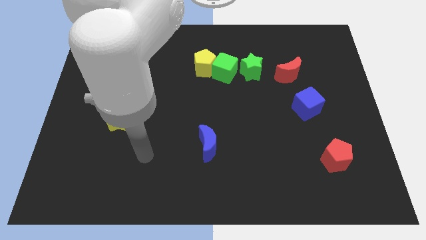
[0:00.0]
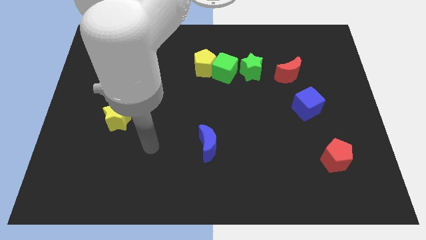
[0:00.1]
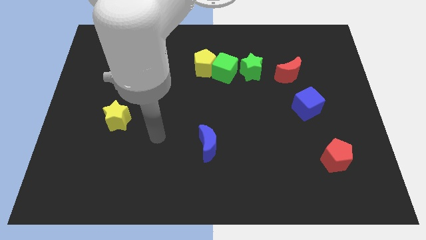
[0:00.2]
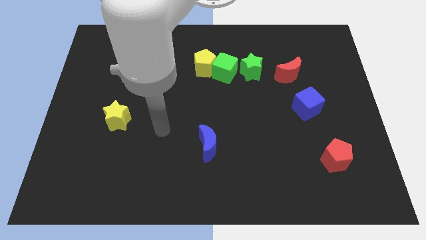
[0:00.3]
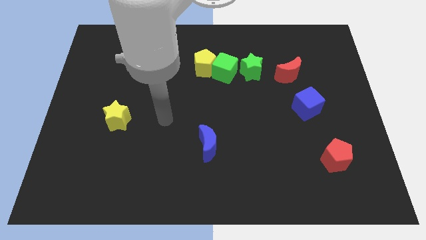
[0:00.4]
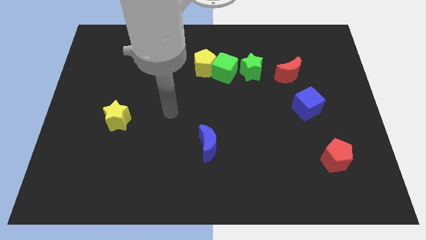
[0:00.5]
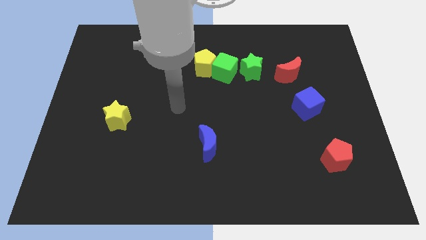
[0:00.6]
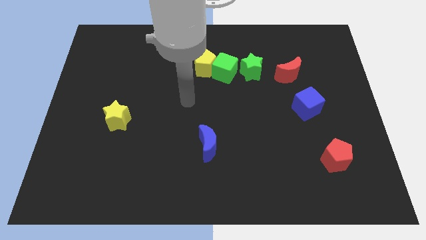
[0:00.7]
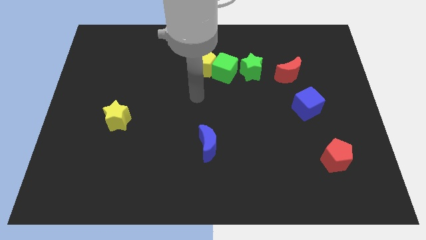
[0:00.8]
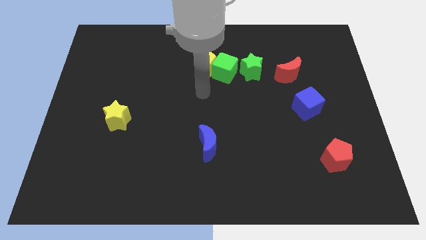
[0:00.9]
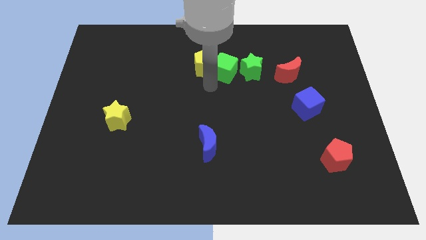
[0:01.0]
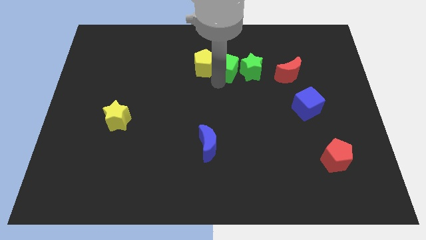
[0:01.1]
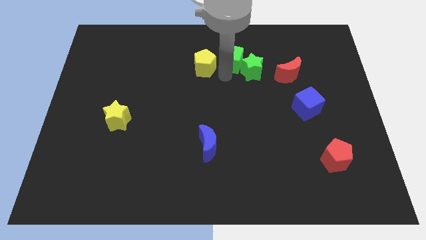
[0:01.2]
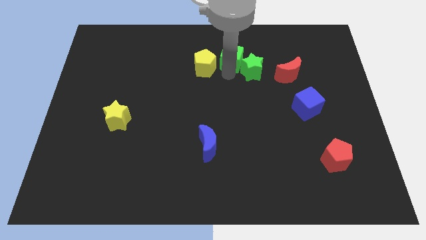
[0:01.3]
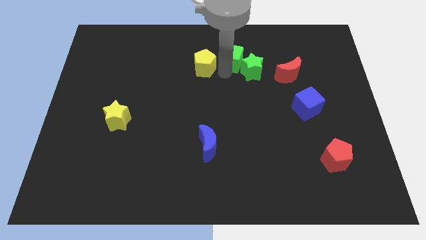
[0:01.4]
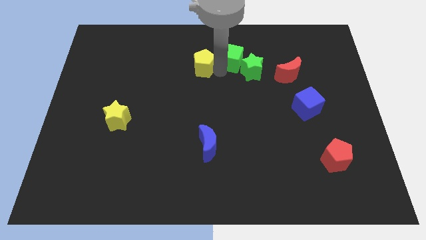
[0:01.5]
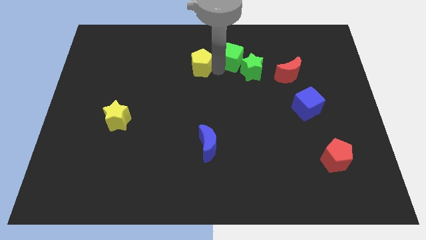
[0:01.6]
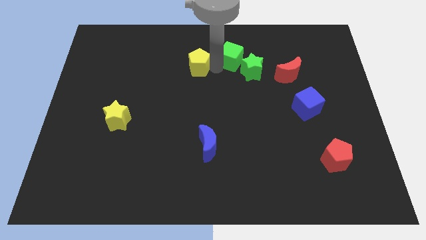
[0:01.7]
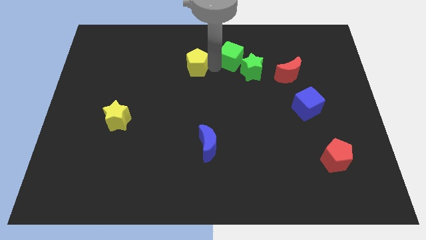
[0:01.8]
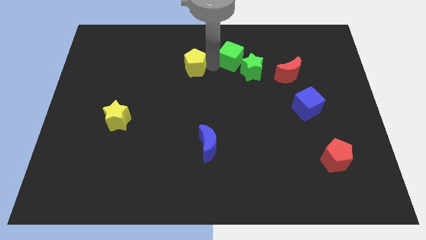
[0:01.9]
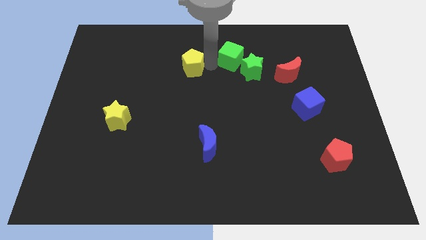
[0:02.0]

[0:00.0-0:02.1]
move the yellow pentagon away from the green cube

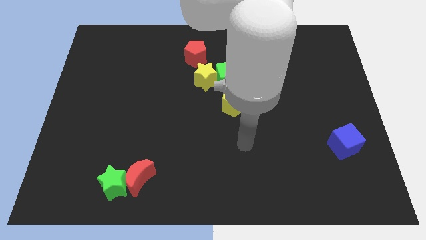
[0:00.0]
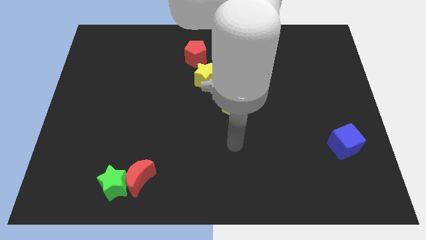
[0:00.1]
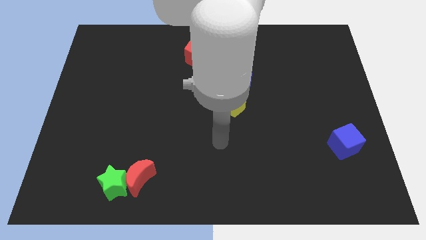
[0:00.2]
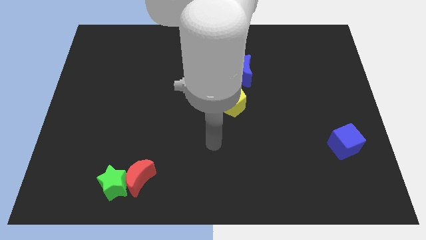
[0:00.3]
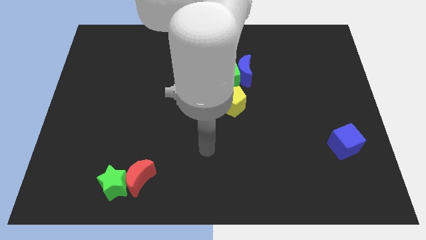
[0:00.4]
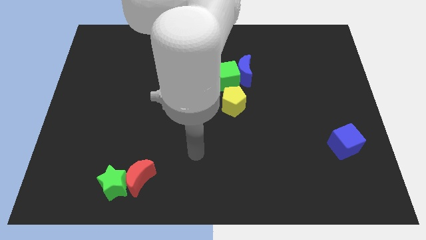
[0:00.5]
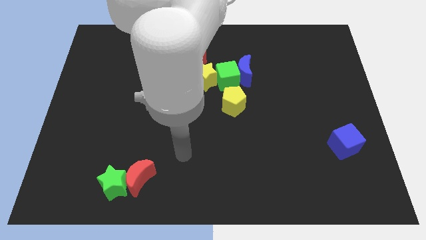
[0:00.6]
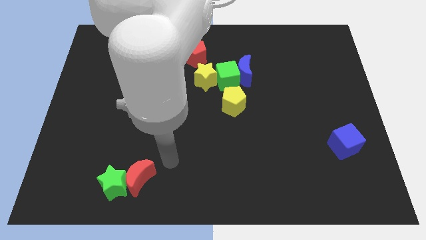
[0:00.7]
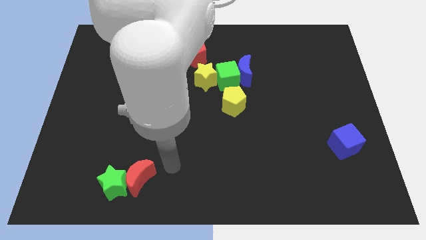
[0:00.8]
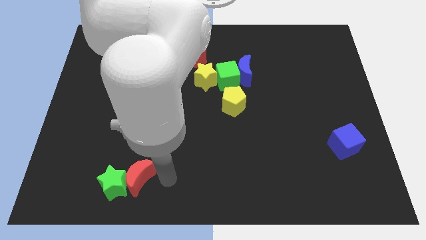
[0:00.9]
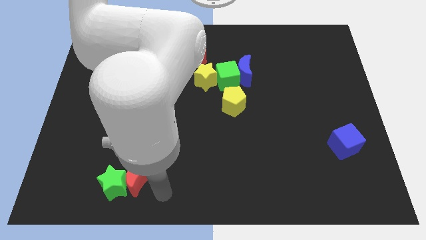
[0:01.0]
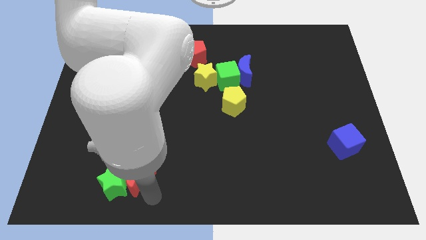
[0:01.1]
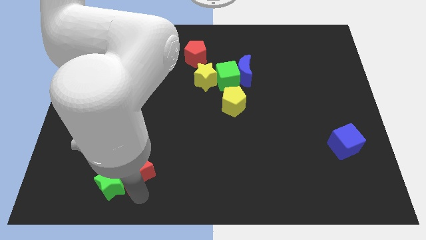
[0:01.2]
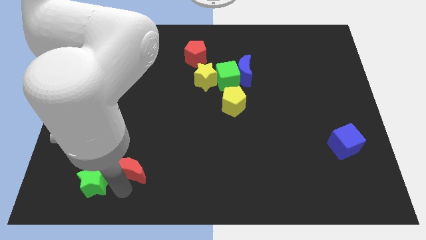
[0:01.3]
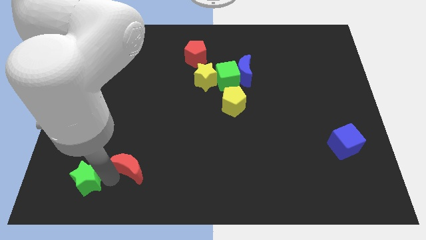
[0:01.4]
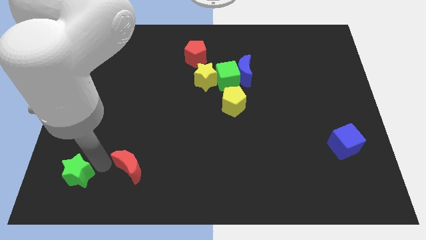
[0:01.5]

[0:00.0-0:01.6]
move the red moon away from the green star

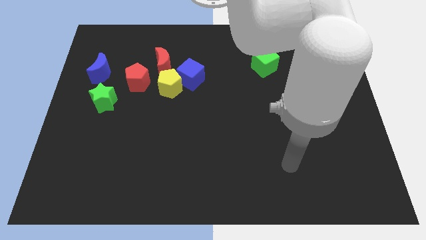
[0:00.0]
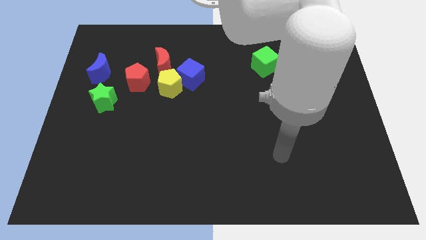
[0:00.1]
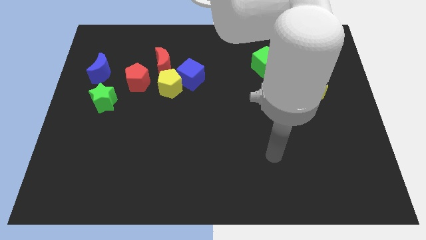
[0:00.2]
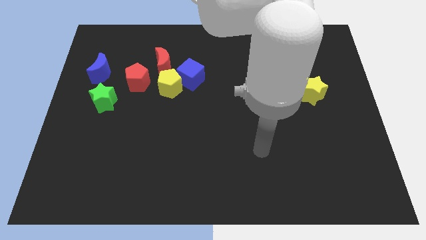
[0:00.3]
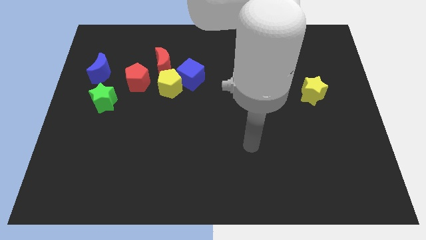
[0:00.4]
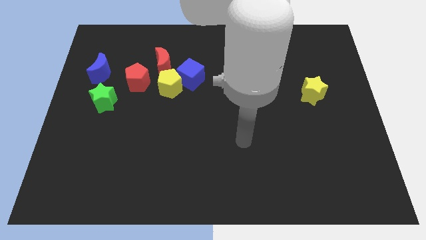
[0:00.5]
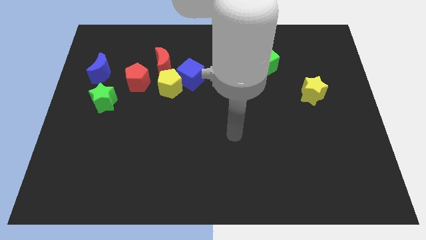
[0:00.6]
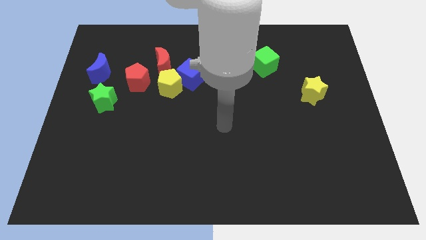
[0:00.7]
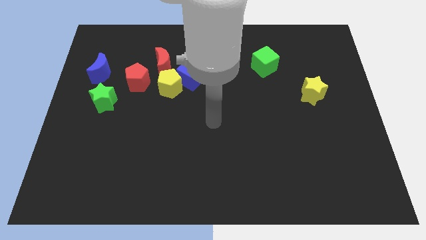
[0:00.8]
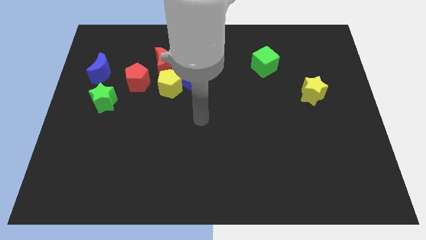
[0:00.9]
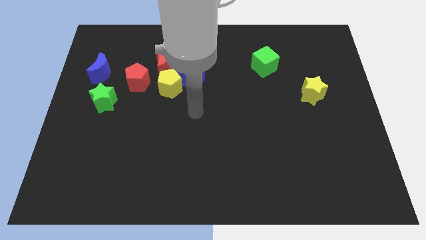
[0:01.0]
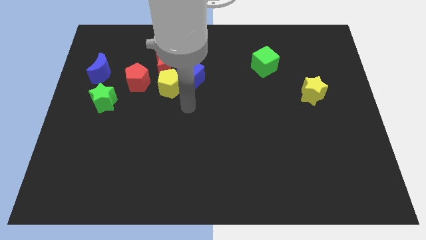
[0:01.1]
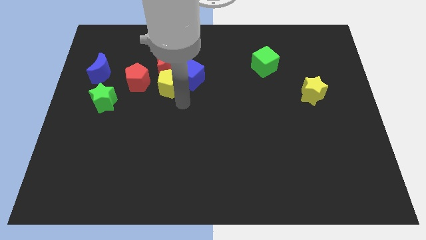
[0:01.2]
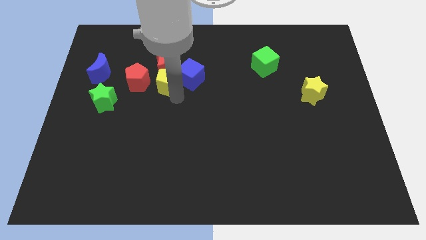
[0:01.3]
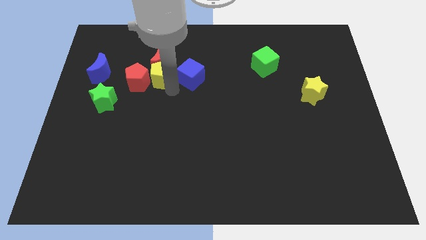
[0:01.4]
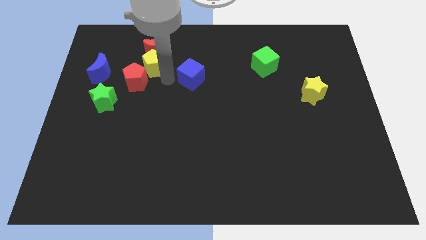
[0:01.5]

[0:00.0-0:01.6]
move the blue cube away from the yellow pentagon and red moon

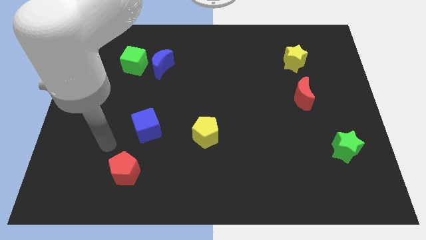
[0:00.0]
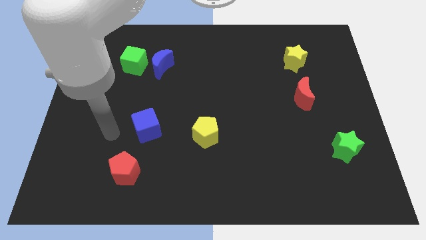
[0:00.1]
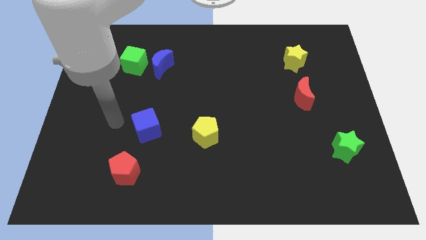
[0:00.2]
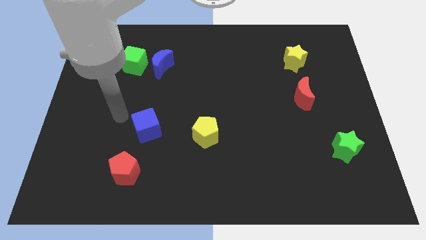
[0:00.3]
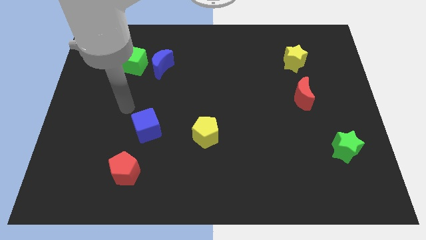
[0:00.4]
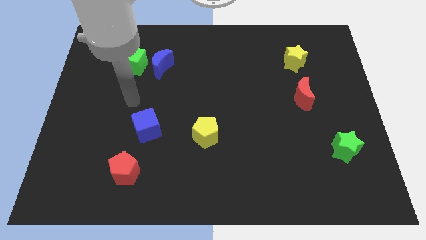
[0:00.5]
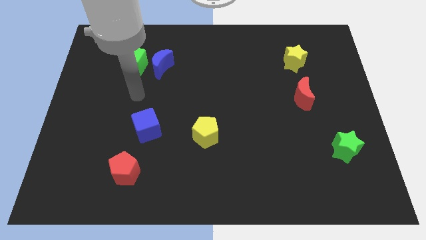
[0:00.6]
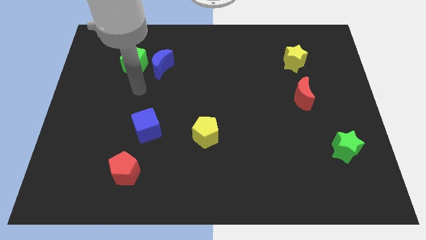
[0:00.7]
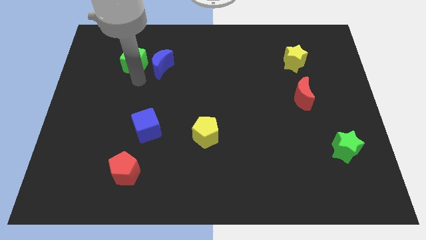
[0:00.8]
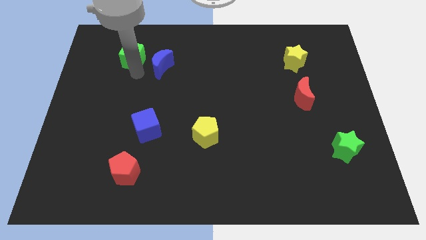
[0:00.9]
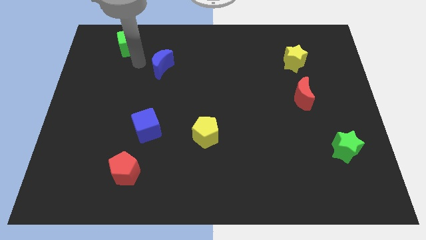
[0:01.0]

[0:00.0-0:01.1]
move the blue moon away from the green cube

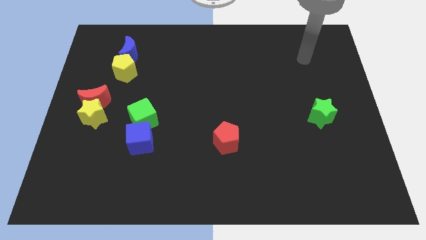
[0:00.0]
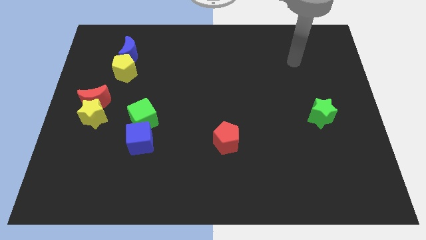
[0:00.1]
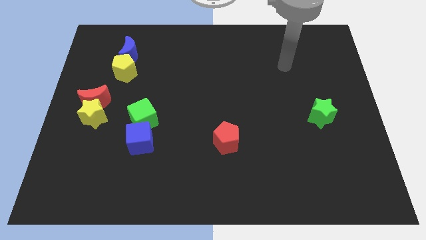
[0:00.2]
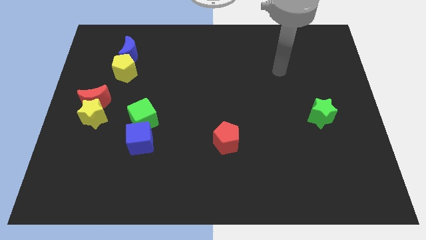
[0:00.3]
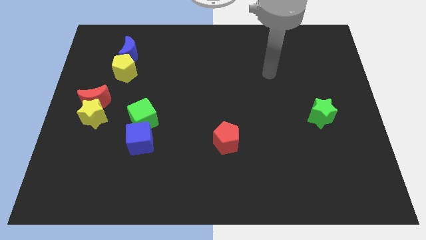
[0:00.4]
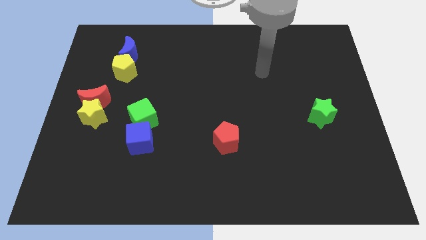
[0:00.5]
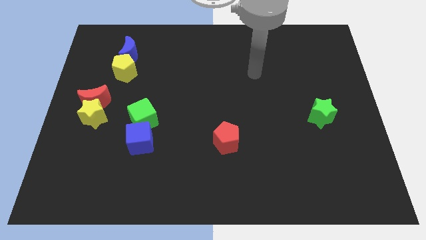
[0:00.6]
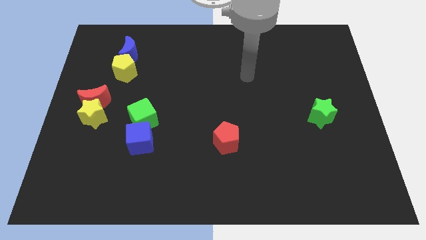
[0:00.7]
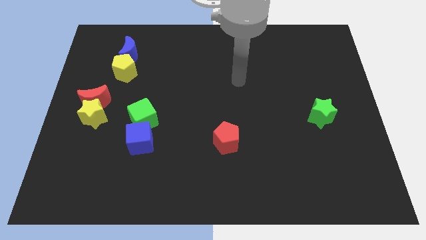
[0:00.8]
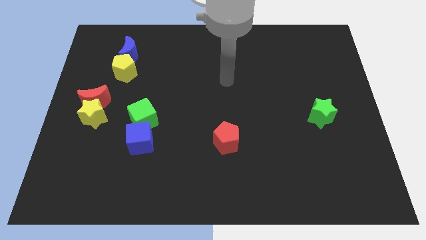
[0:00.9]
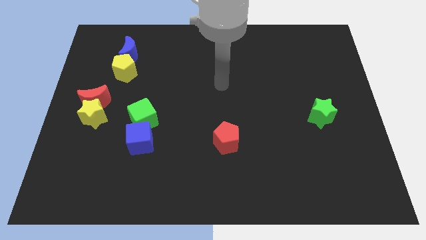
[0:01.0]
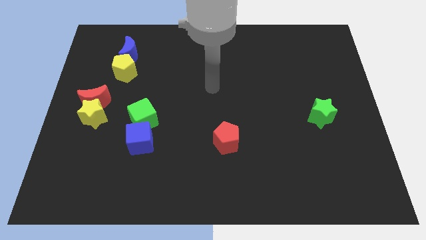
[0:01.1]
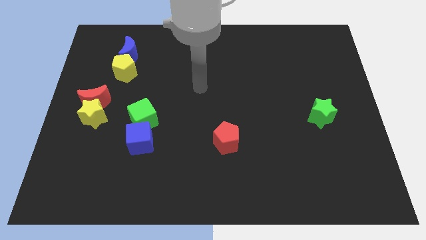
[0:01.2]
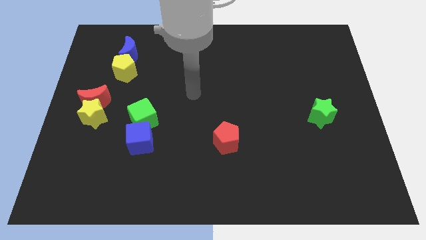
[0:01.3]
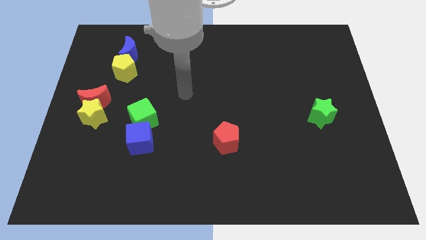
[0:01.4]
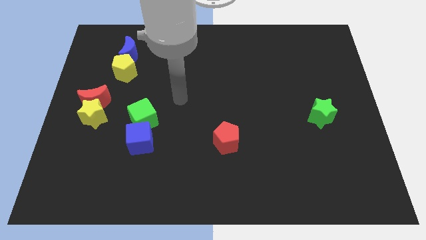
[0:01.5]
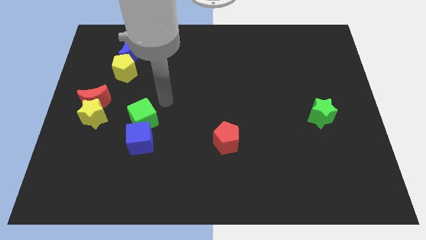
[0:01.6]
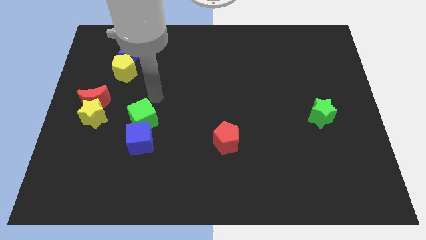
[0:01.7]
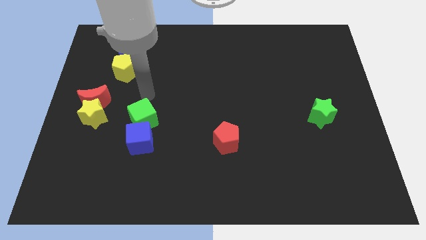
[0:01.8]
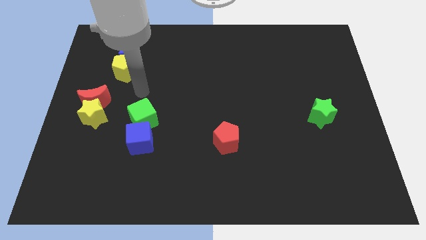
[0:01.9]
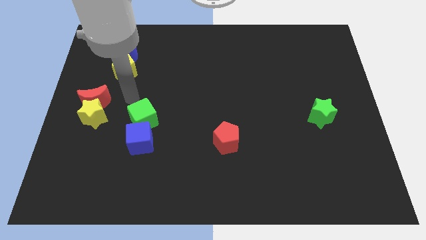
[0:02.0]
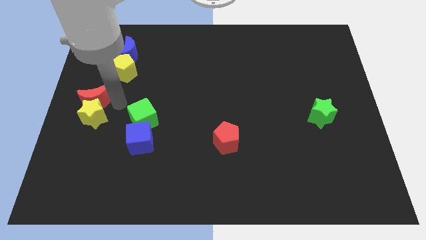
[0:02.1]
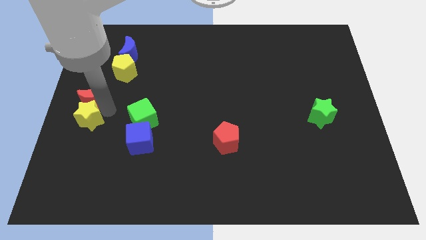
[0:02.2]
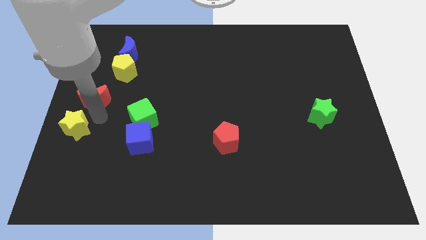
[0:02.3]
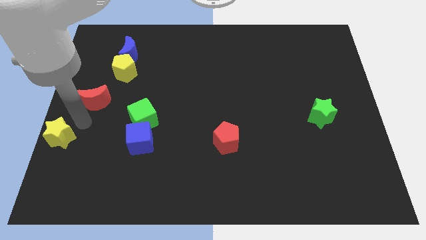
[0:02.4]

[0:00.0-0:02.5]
separate the red moon from the yellow star

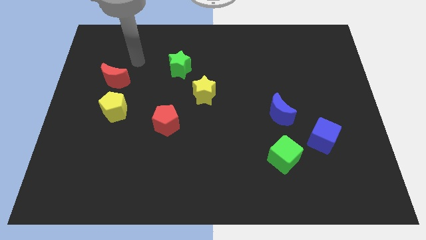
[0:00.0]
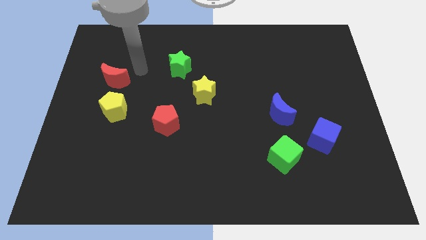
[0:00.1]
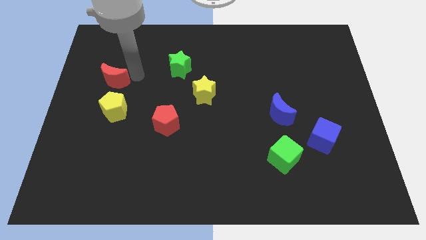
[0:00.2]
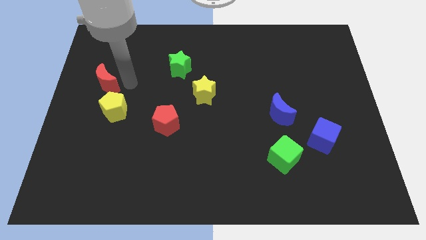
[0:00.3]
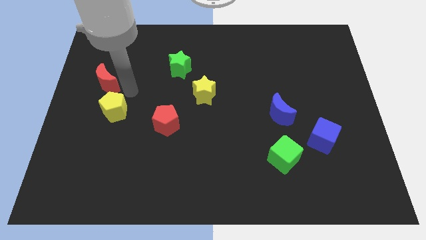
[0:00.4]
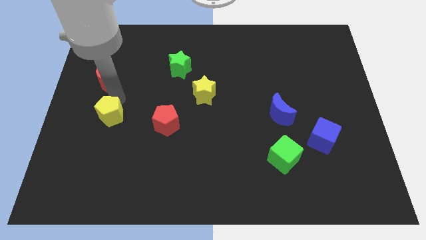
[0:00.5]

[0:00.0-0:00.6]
separate the red moon from the yellow pentagon
